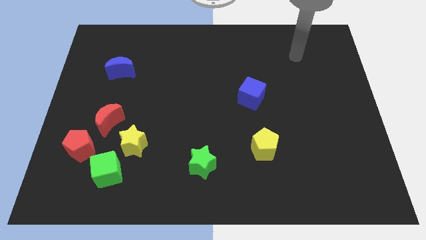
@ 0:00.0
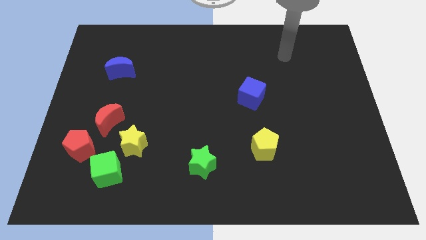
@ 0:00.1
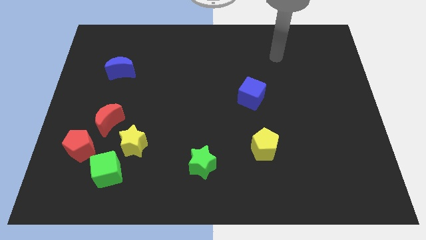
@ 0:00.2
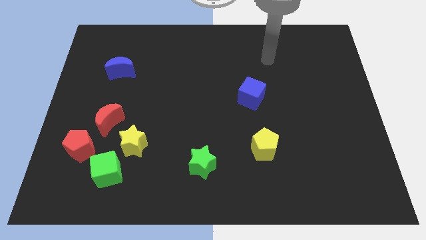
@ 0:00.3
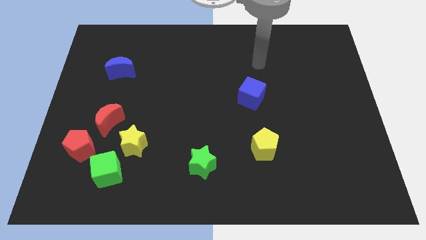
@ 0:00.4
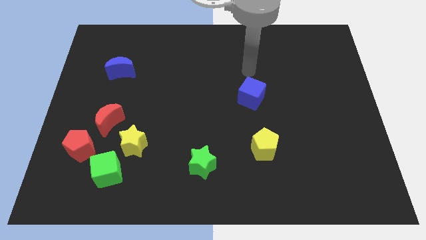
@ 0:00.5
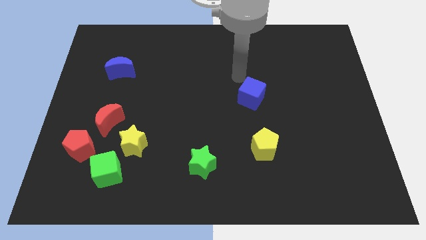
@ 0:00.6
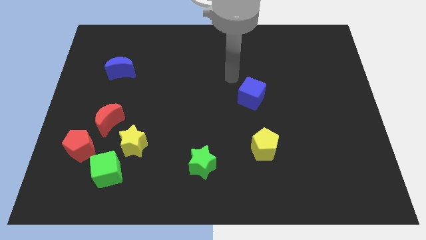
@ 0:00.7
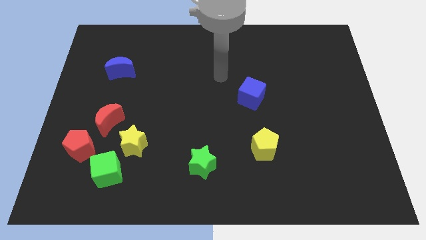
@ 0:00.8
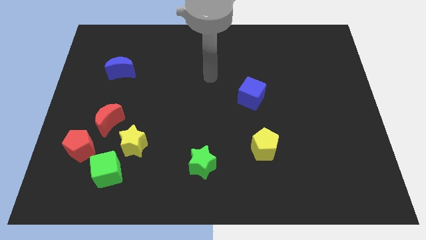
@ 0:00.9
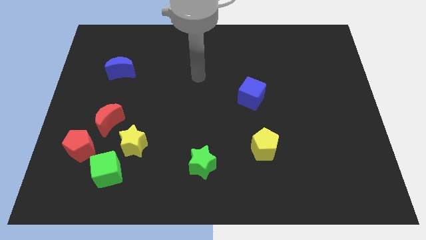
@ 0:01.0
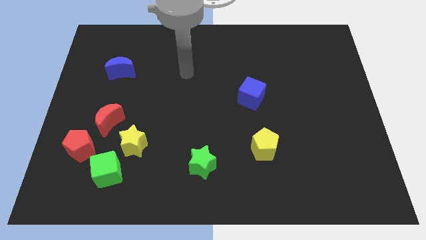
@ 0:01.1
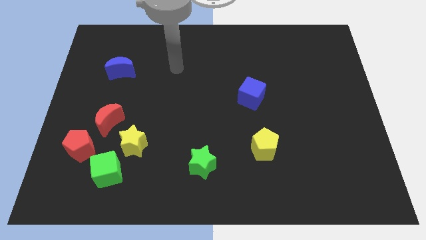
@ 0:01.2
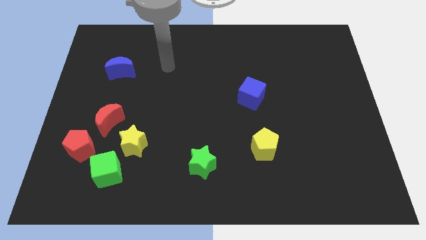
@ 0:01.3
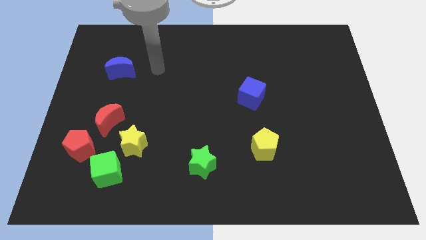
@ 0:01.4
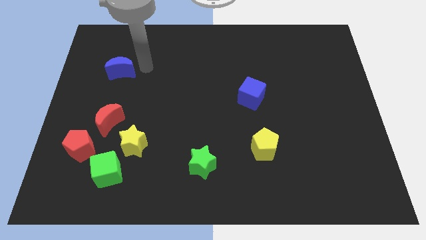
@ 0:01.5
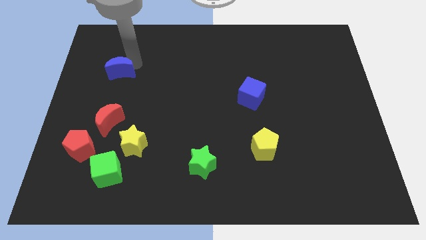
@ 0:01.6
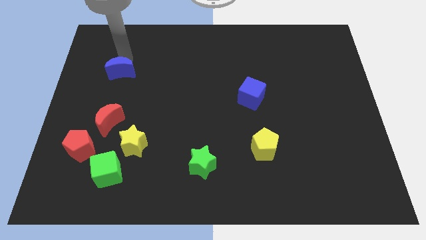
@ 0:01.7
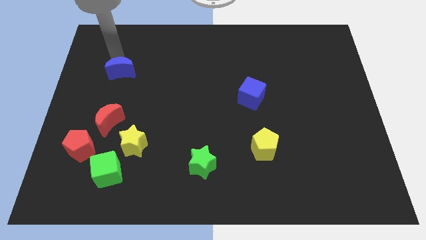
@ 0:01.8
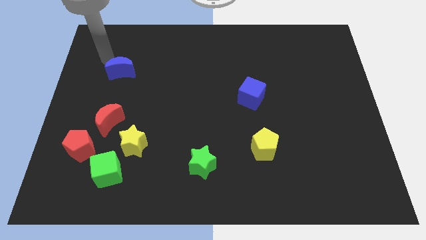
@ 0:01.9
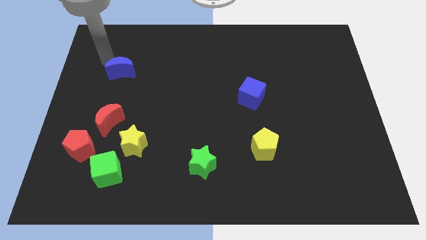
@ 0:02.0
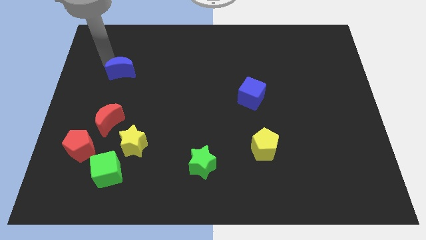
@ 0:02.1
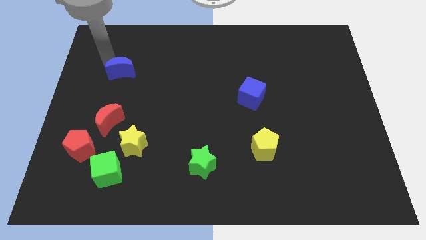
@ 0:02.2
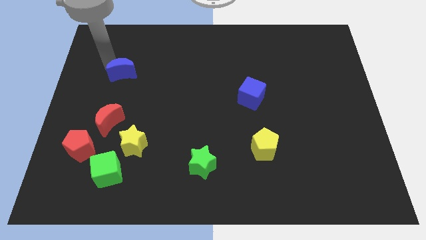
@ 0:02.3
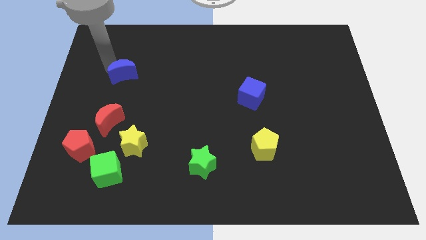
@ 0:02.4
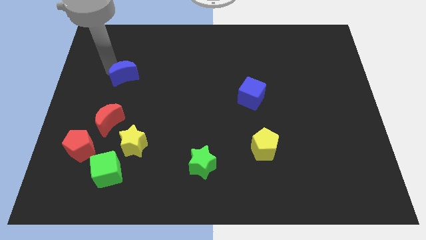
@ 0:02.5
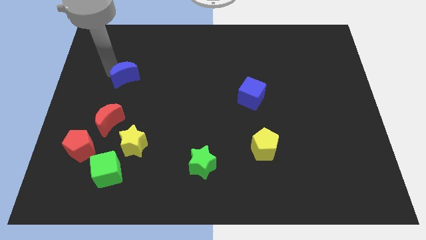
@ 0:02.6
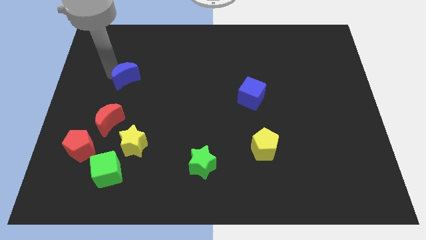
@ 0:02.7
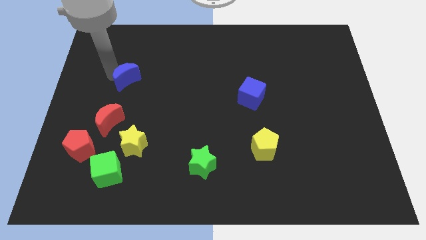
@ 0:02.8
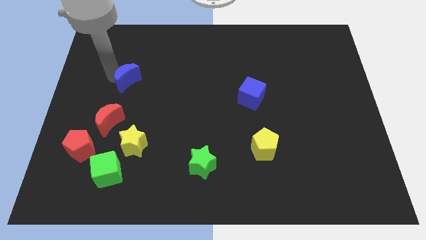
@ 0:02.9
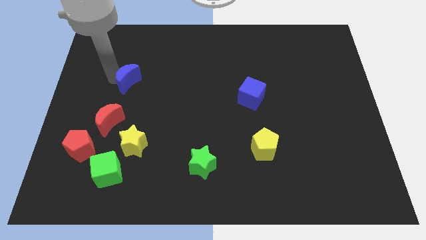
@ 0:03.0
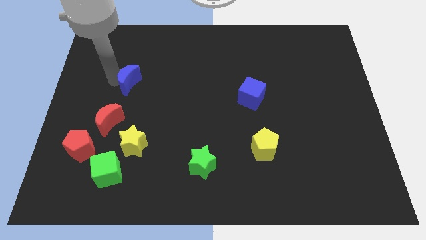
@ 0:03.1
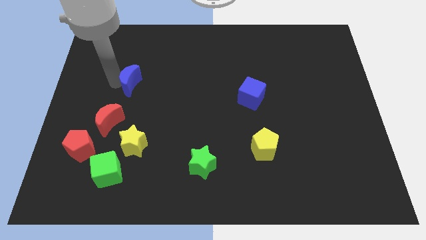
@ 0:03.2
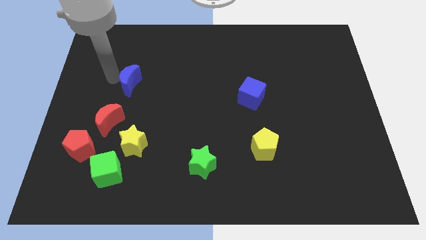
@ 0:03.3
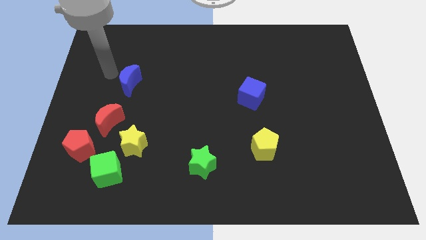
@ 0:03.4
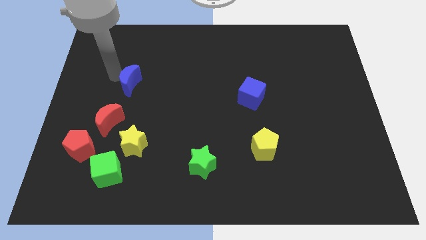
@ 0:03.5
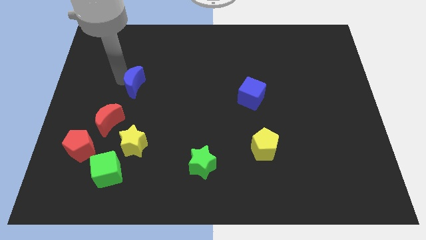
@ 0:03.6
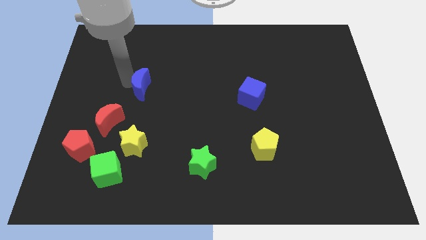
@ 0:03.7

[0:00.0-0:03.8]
slide the blue moon down and to the right slightly

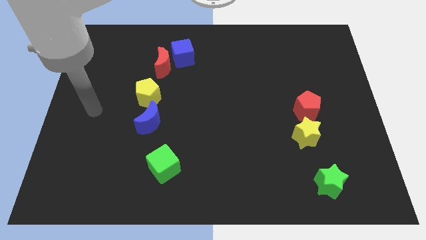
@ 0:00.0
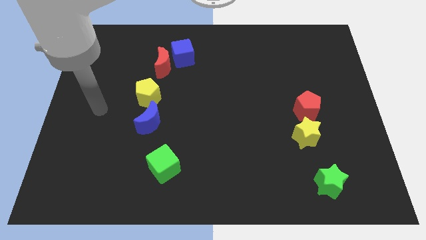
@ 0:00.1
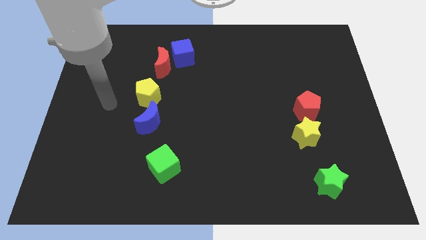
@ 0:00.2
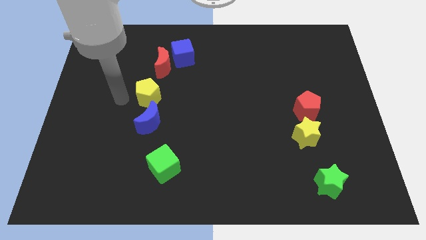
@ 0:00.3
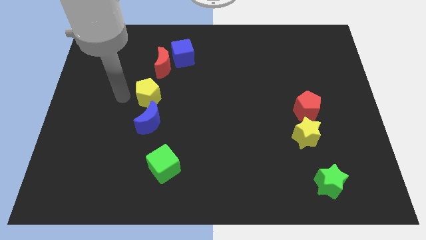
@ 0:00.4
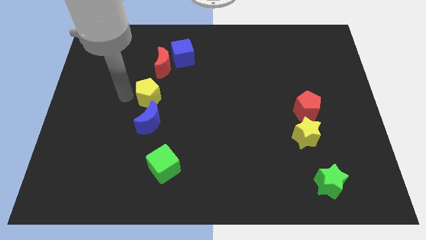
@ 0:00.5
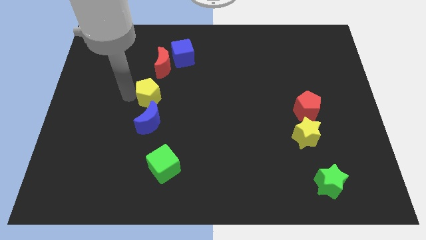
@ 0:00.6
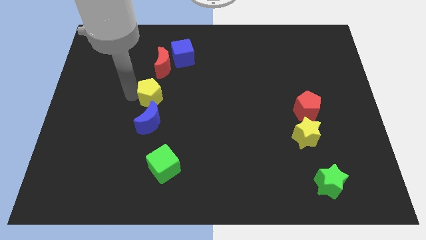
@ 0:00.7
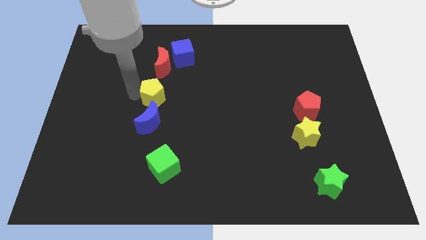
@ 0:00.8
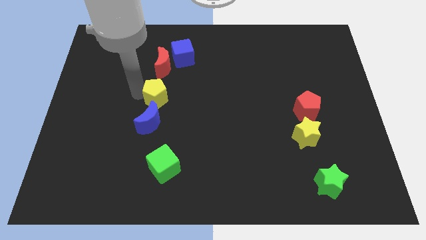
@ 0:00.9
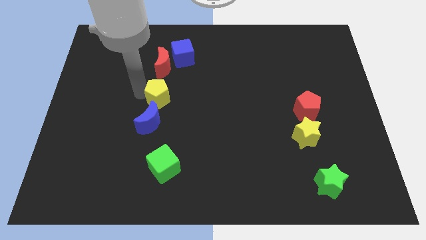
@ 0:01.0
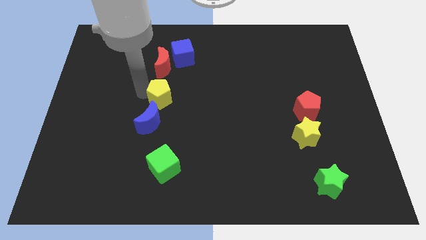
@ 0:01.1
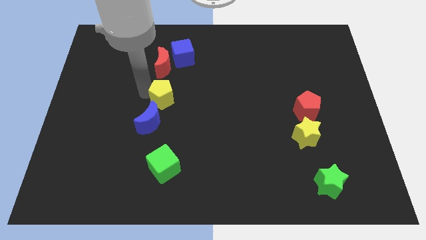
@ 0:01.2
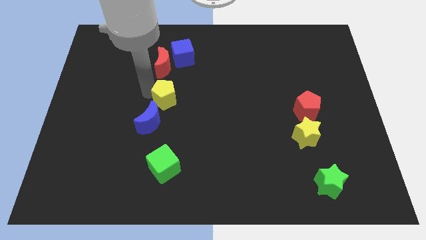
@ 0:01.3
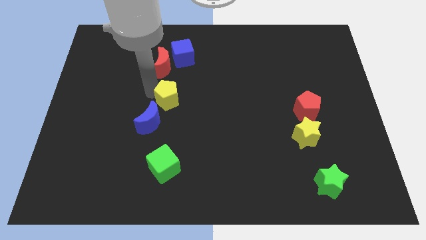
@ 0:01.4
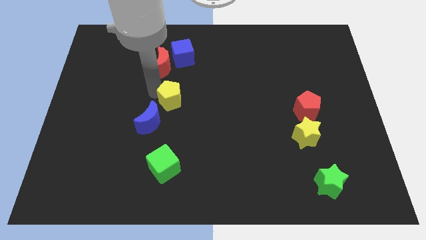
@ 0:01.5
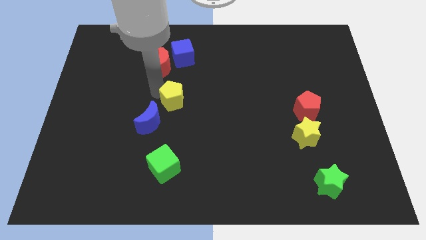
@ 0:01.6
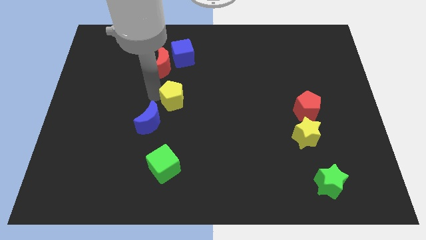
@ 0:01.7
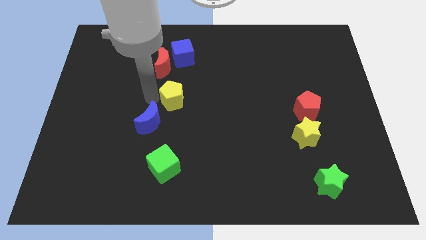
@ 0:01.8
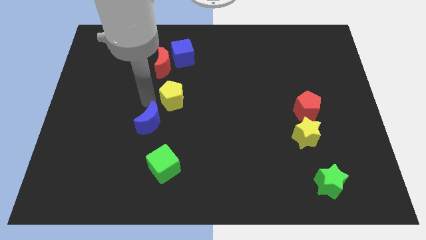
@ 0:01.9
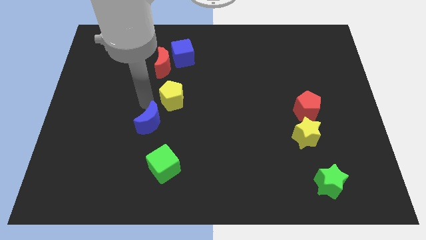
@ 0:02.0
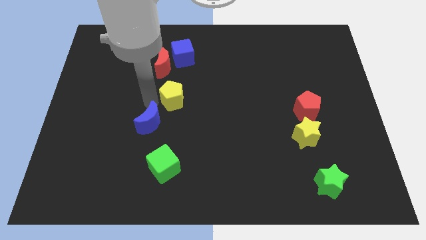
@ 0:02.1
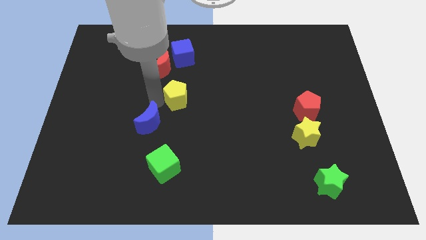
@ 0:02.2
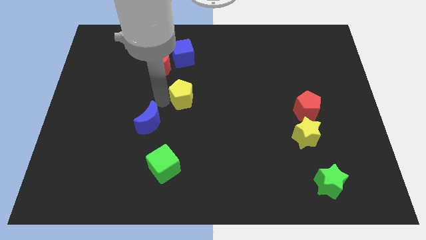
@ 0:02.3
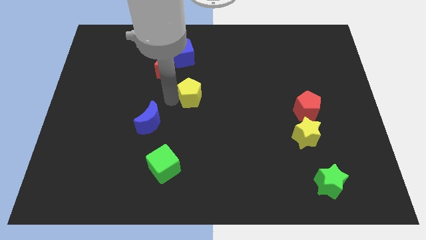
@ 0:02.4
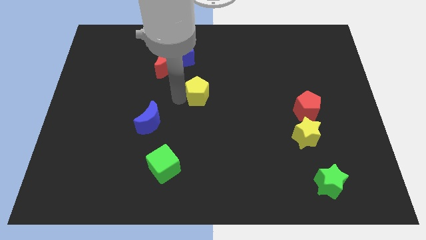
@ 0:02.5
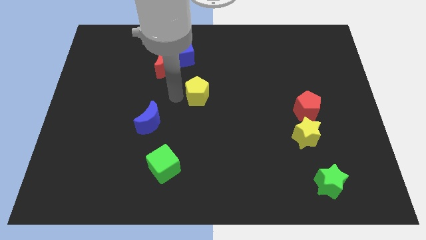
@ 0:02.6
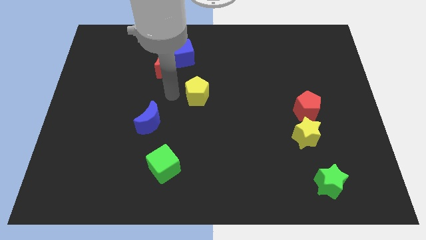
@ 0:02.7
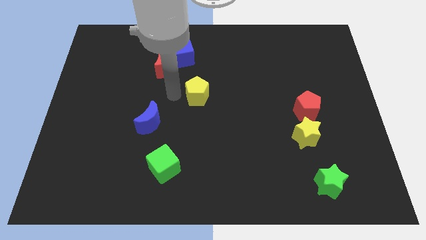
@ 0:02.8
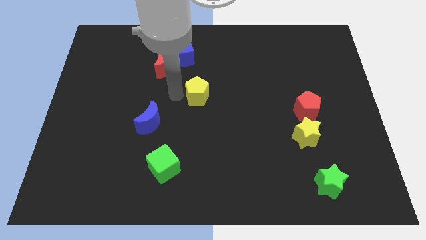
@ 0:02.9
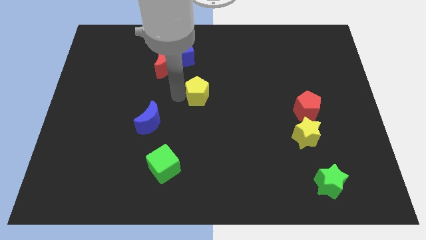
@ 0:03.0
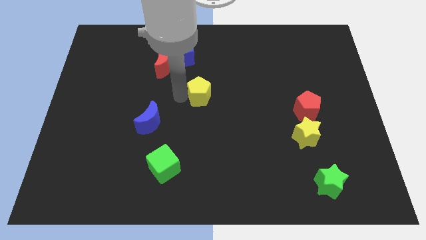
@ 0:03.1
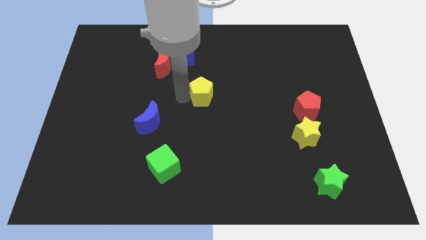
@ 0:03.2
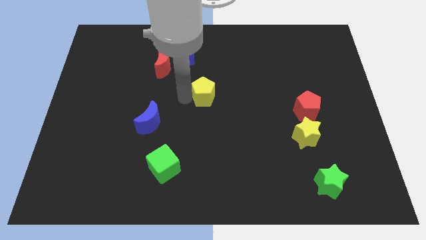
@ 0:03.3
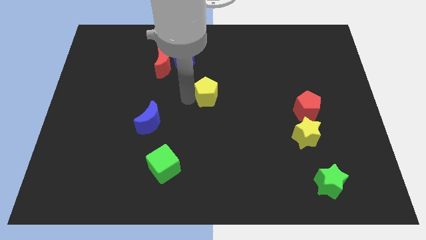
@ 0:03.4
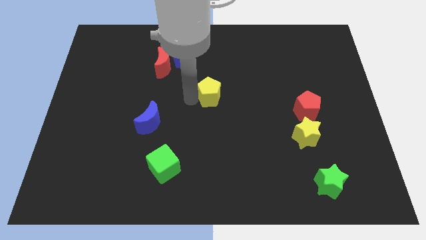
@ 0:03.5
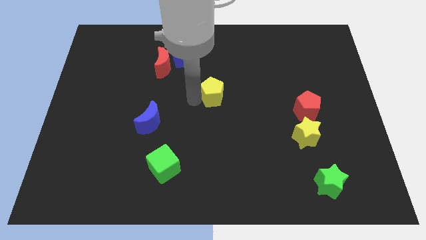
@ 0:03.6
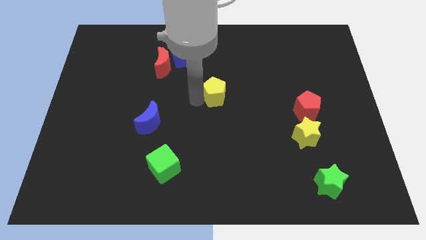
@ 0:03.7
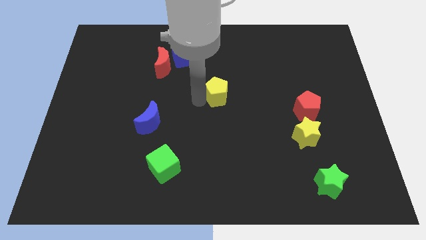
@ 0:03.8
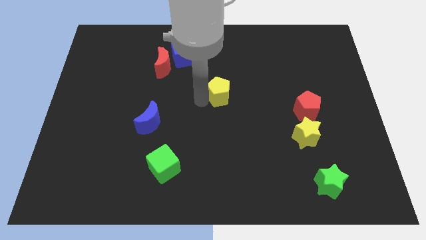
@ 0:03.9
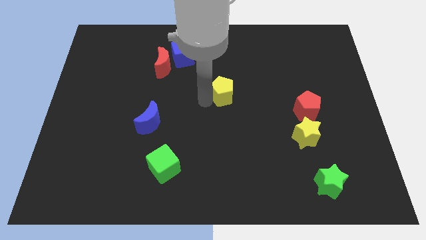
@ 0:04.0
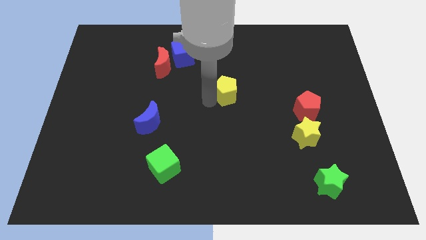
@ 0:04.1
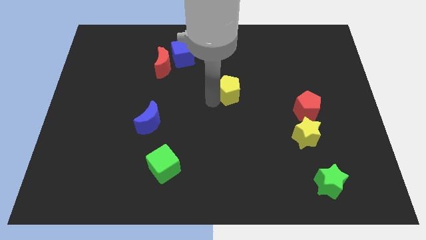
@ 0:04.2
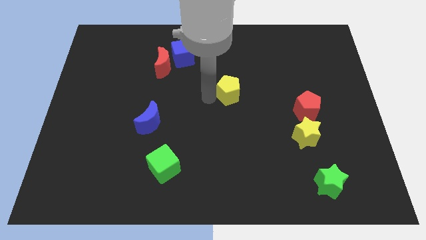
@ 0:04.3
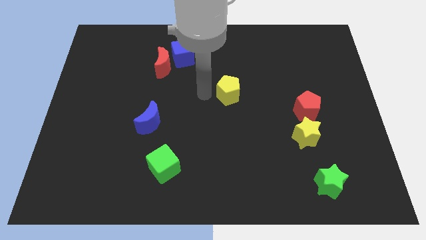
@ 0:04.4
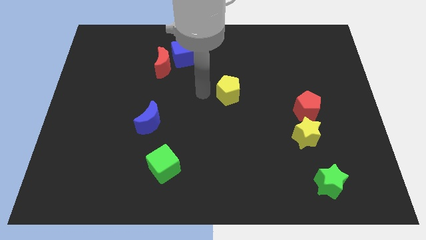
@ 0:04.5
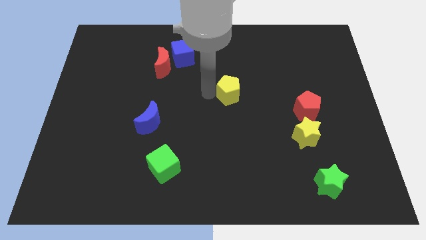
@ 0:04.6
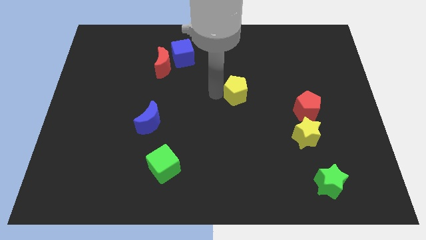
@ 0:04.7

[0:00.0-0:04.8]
slide the yellow pentagon right
